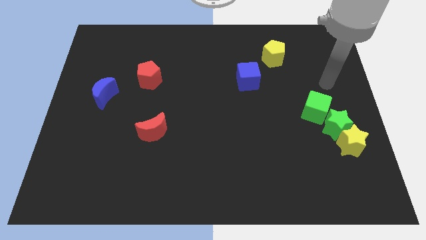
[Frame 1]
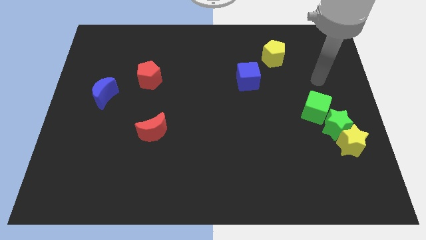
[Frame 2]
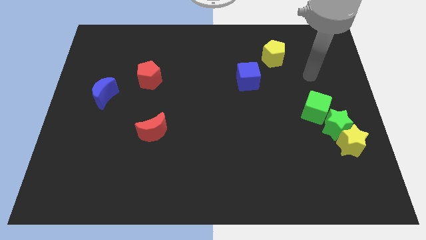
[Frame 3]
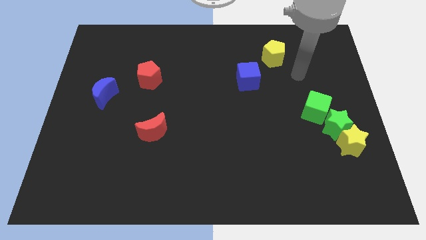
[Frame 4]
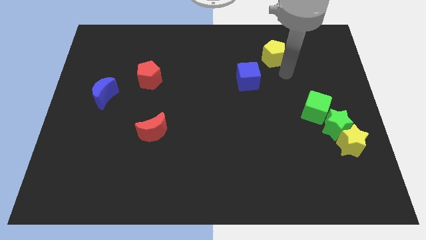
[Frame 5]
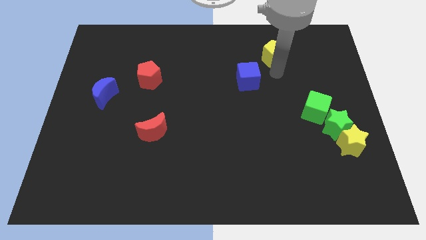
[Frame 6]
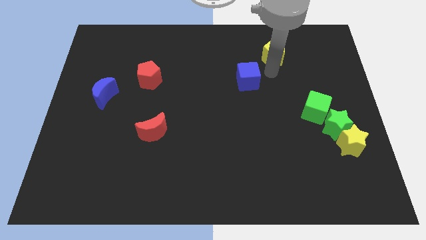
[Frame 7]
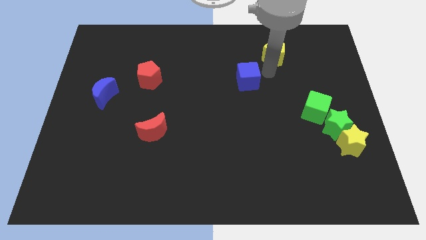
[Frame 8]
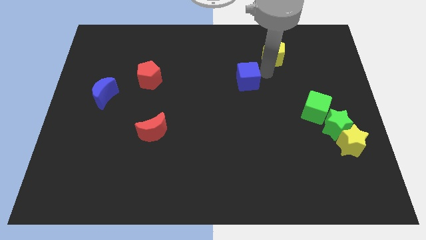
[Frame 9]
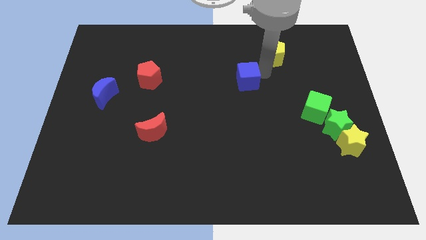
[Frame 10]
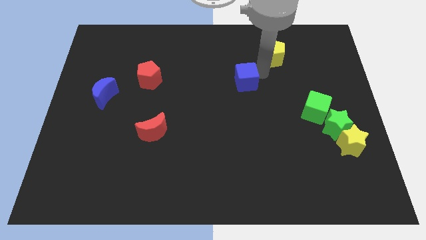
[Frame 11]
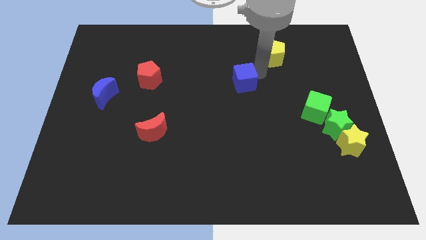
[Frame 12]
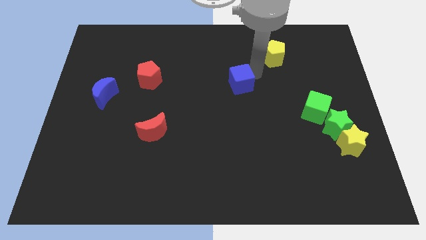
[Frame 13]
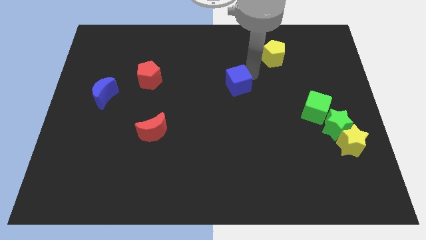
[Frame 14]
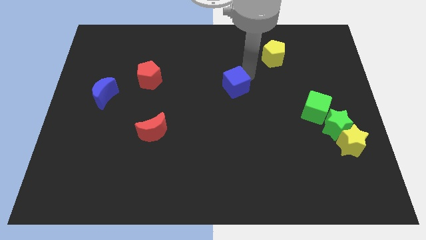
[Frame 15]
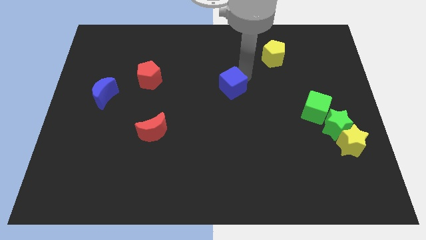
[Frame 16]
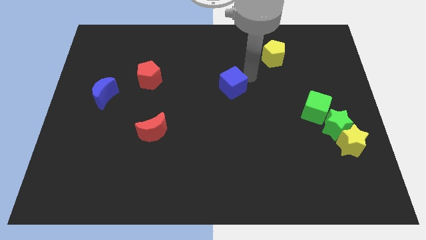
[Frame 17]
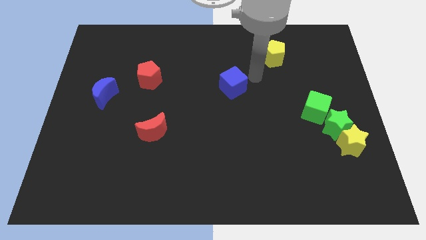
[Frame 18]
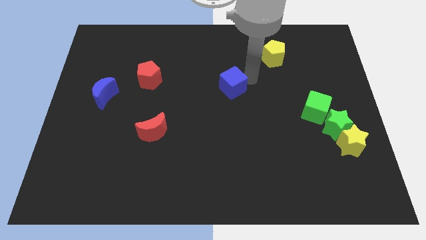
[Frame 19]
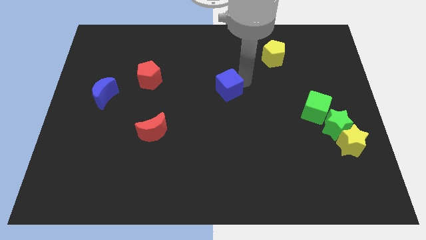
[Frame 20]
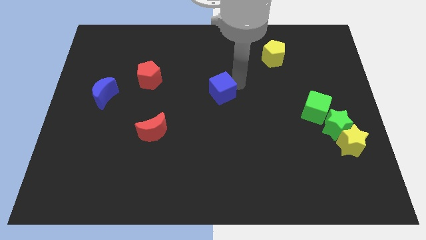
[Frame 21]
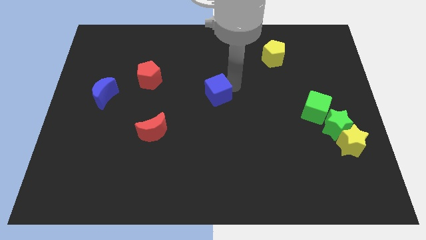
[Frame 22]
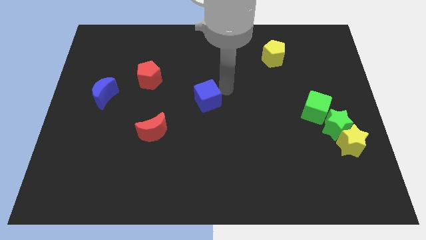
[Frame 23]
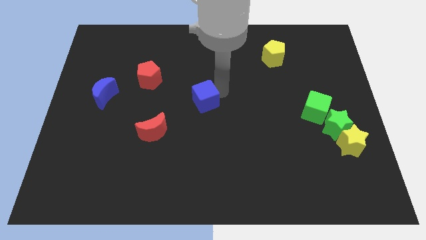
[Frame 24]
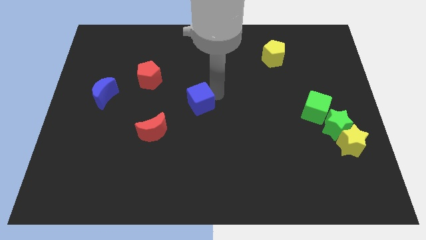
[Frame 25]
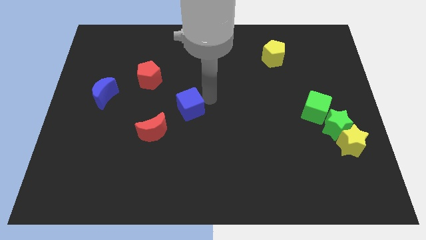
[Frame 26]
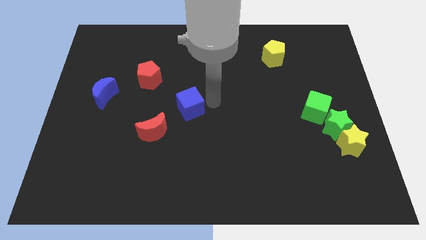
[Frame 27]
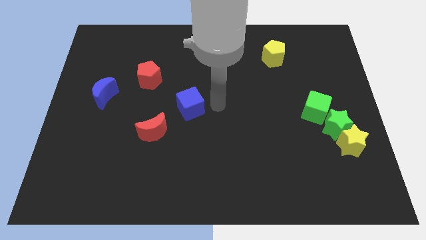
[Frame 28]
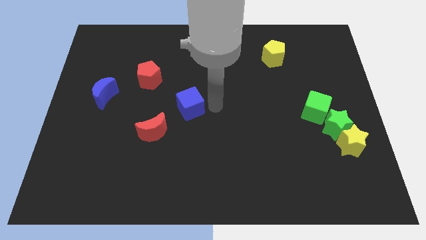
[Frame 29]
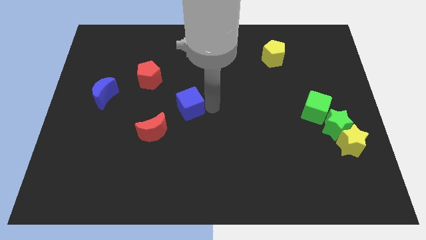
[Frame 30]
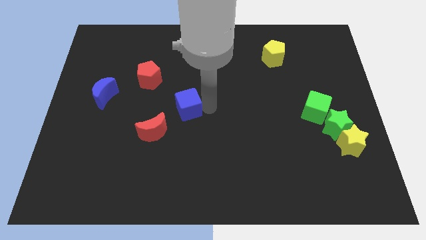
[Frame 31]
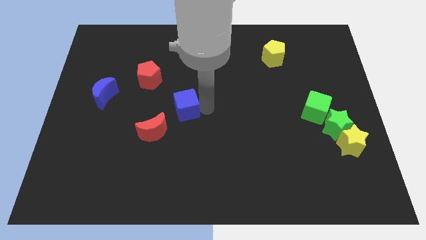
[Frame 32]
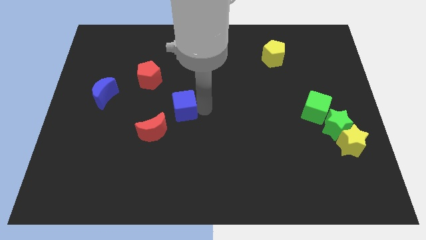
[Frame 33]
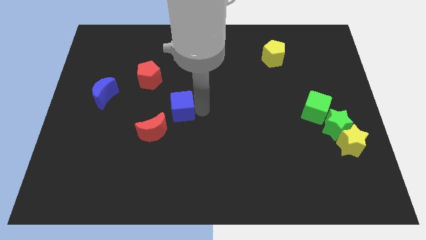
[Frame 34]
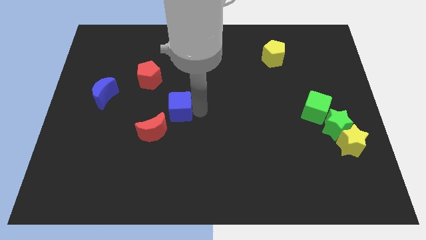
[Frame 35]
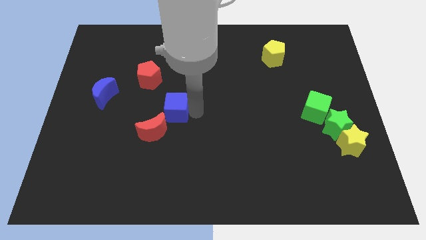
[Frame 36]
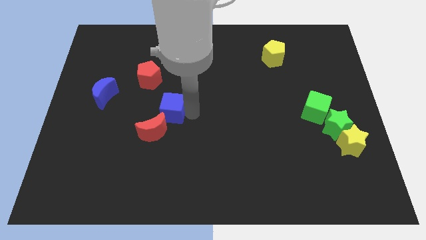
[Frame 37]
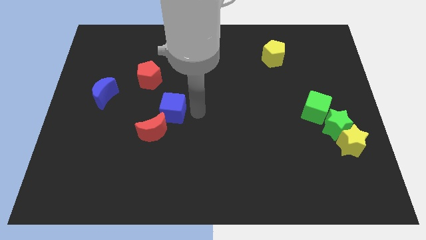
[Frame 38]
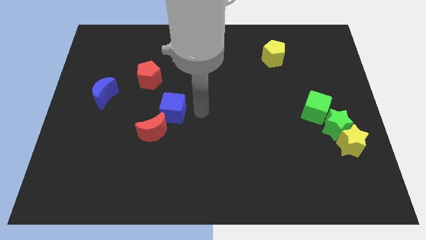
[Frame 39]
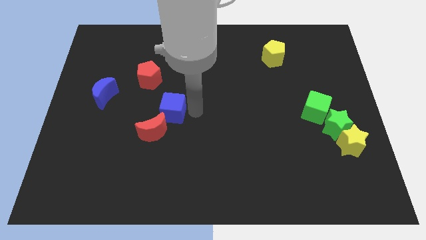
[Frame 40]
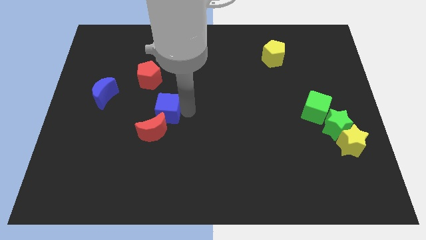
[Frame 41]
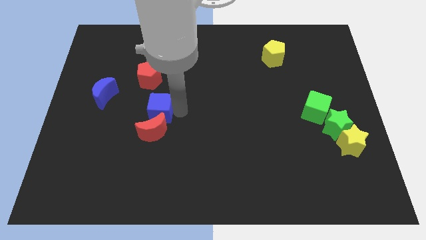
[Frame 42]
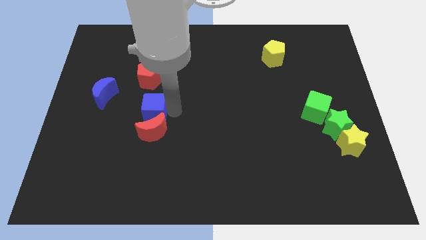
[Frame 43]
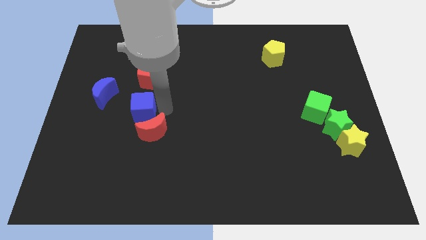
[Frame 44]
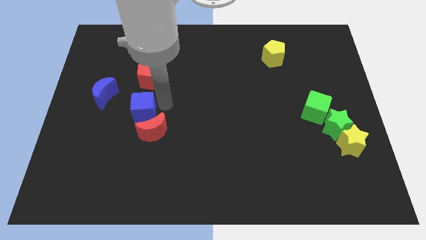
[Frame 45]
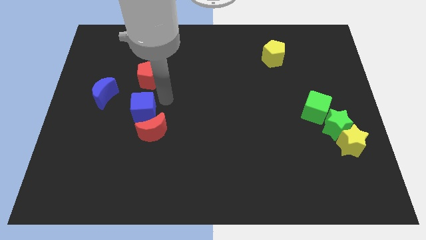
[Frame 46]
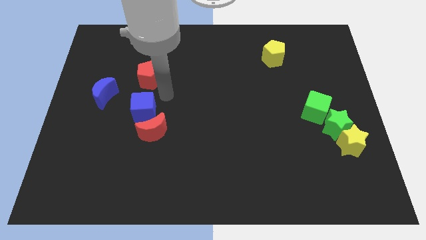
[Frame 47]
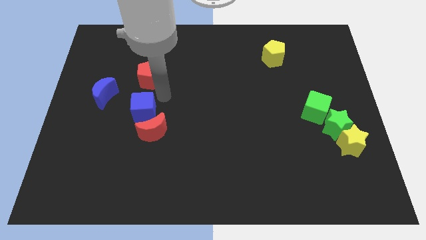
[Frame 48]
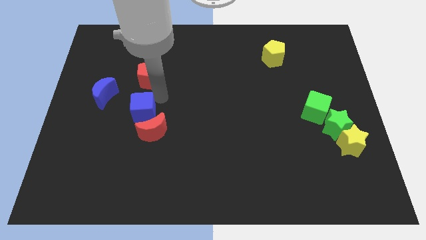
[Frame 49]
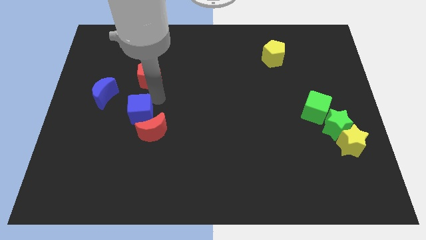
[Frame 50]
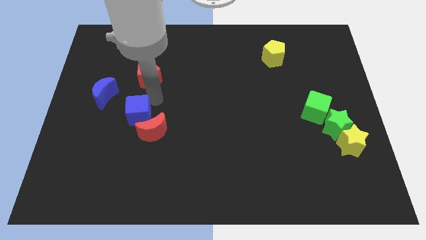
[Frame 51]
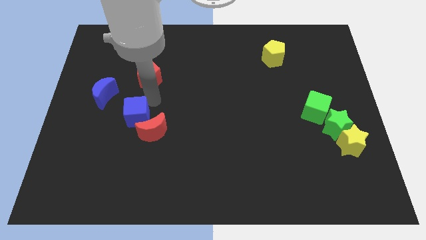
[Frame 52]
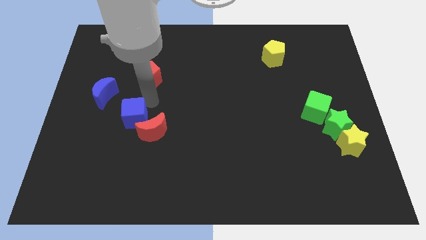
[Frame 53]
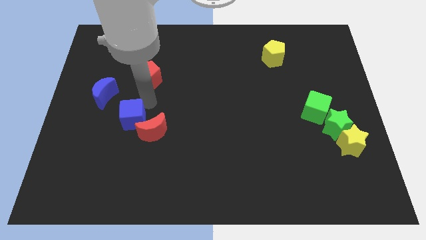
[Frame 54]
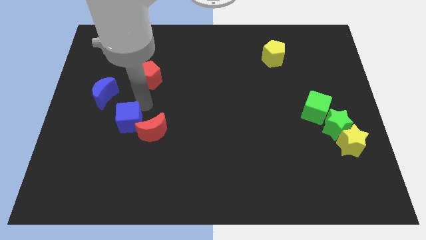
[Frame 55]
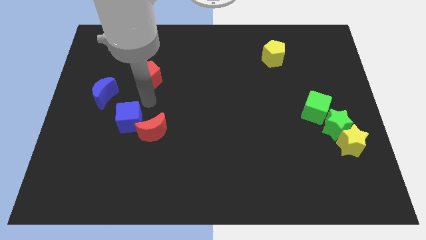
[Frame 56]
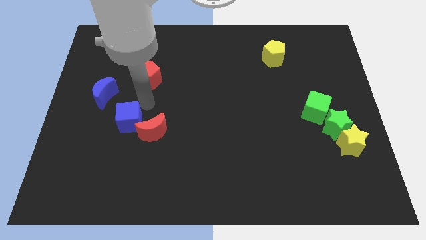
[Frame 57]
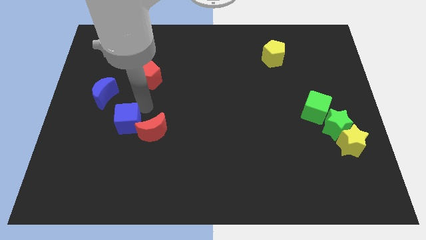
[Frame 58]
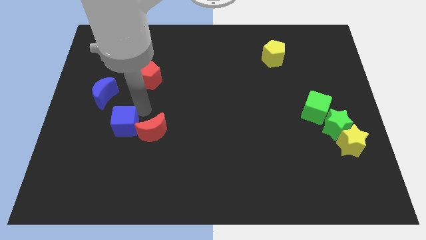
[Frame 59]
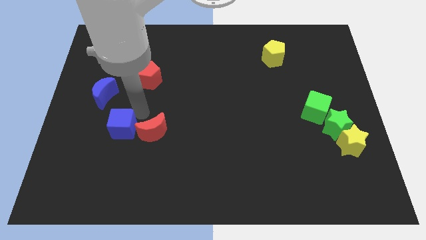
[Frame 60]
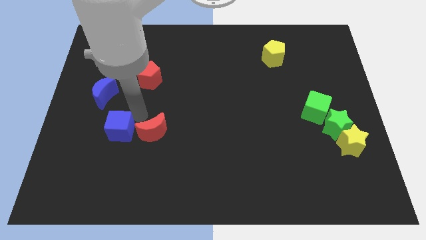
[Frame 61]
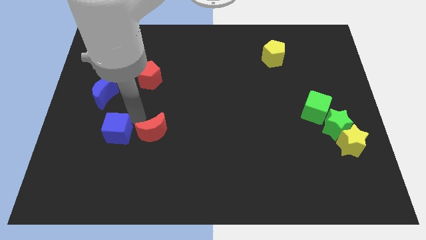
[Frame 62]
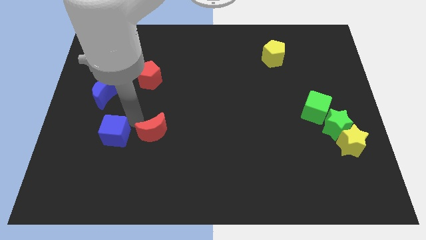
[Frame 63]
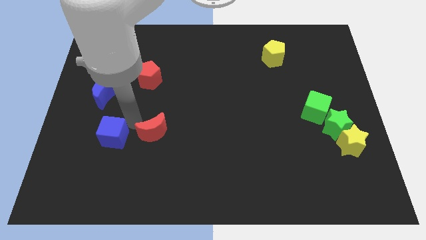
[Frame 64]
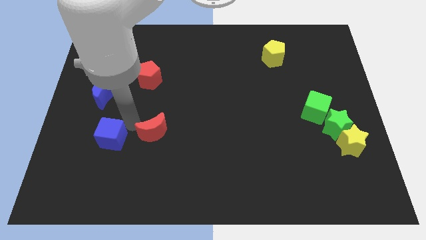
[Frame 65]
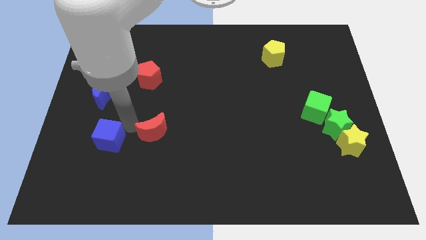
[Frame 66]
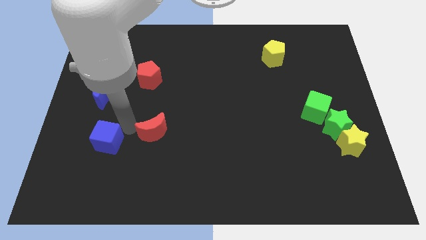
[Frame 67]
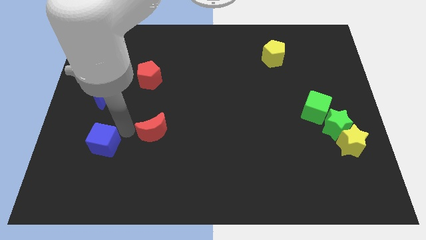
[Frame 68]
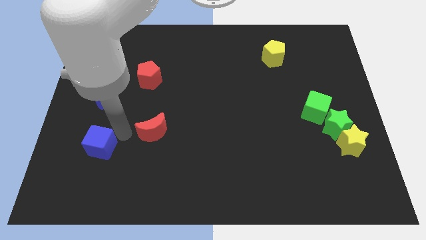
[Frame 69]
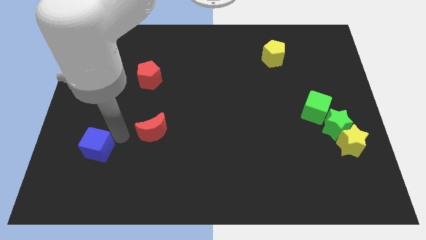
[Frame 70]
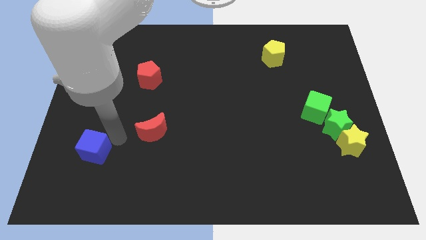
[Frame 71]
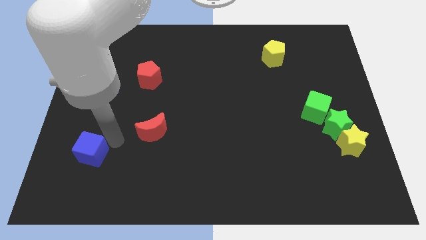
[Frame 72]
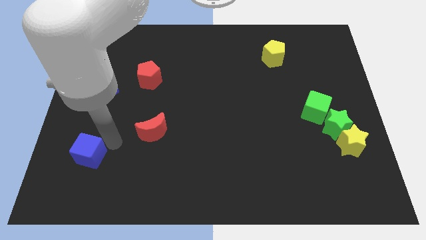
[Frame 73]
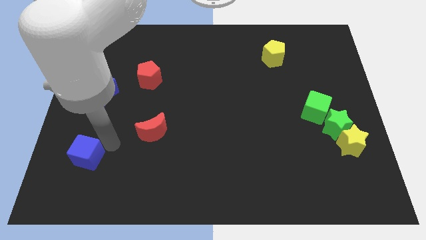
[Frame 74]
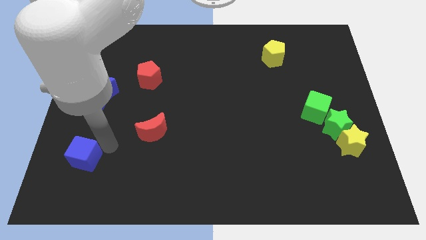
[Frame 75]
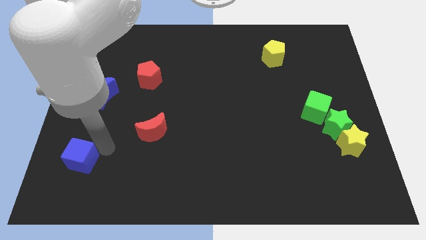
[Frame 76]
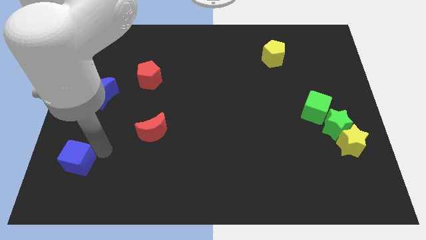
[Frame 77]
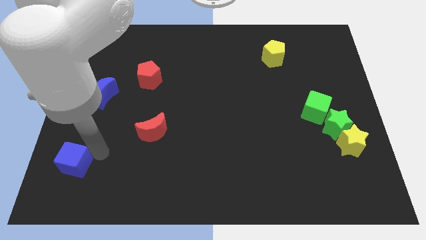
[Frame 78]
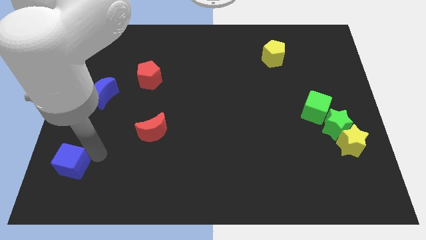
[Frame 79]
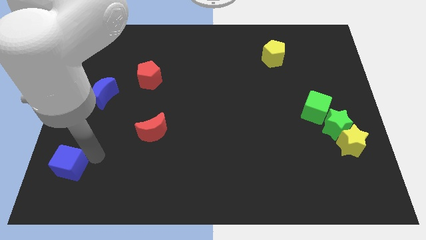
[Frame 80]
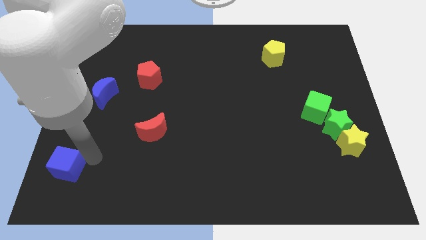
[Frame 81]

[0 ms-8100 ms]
push the blue cube to the lower left corner
